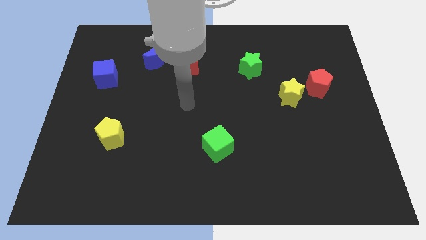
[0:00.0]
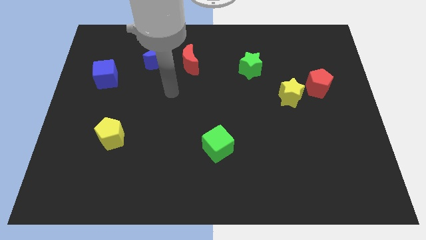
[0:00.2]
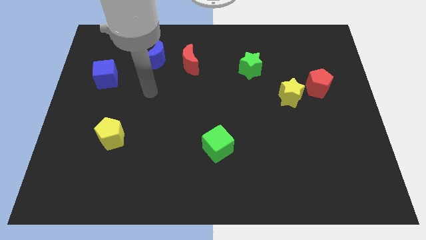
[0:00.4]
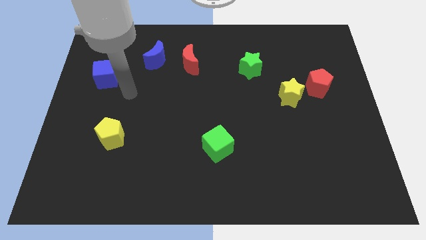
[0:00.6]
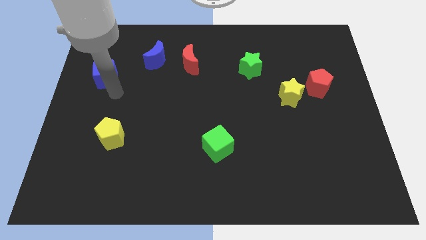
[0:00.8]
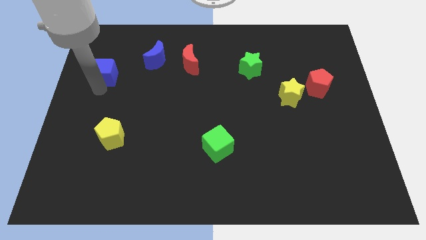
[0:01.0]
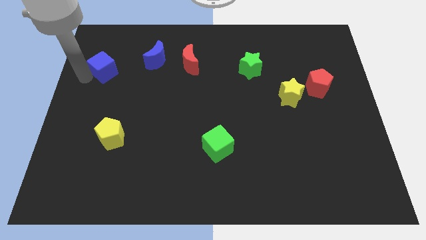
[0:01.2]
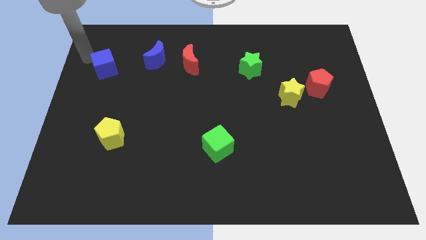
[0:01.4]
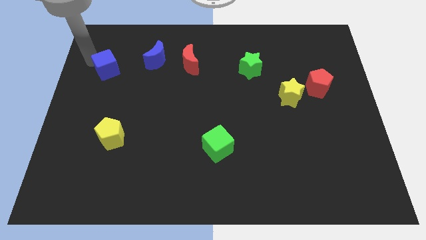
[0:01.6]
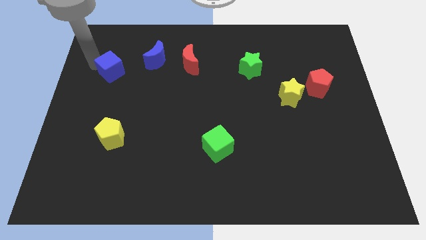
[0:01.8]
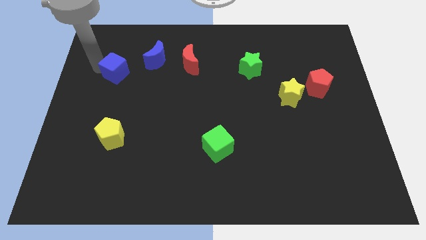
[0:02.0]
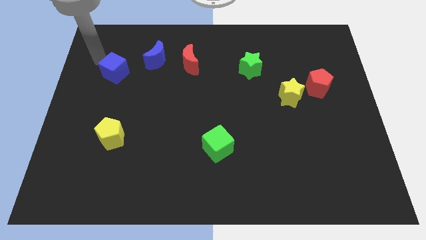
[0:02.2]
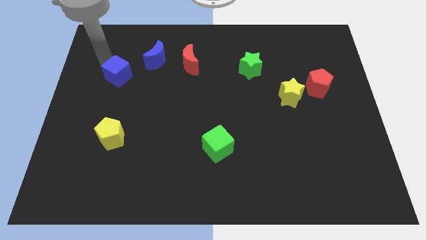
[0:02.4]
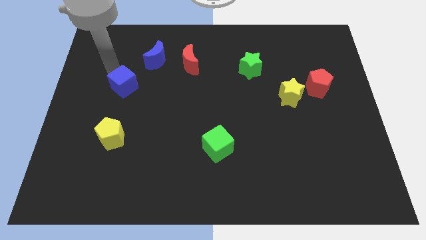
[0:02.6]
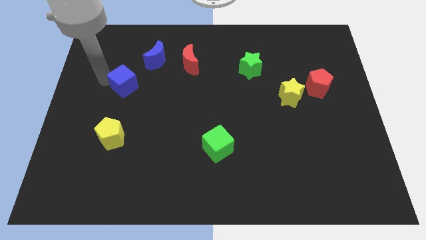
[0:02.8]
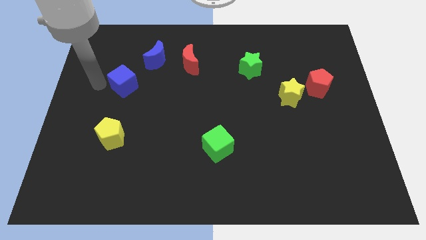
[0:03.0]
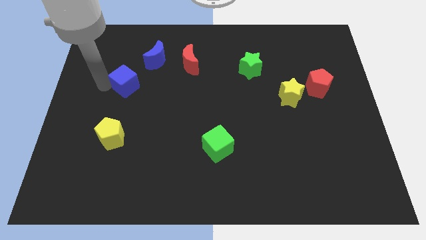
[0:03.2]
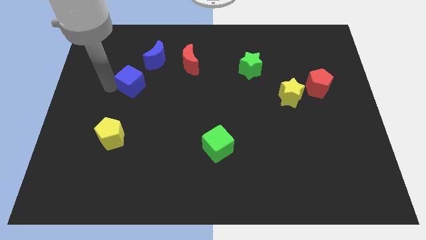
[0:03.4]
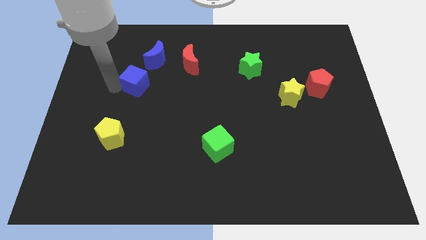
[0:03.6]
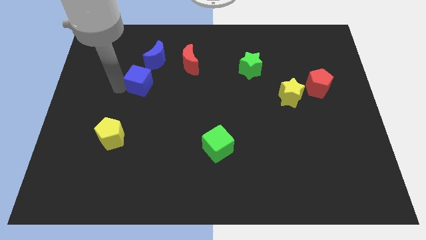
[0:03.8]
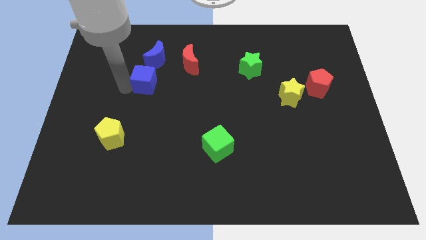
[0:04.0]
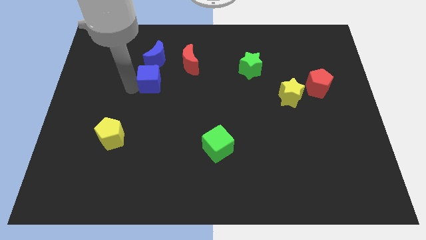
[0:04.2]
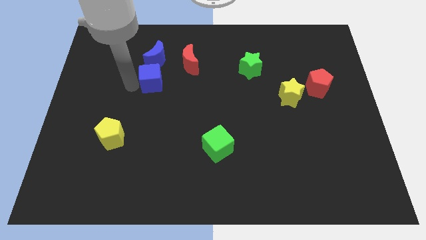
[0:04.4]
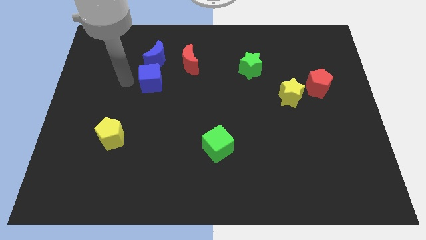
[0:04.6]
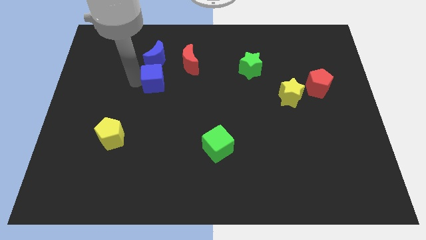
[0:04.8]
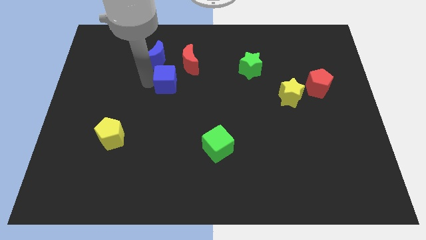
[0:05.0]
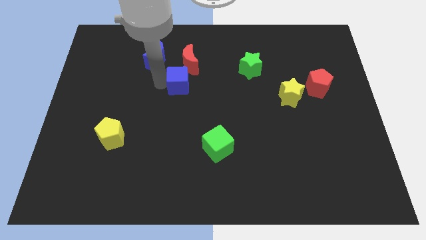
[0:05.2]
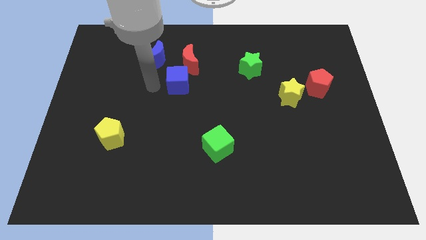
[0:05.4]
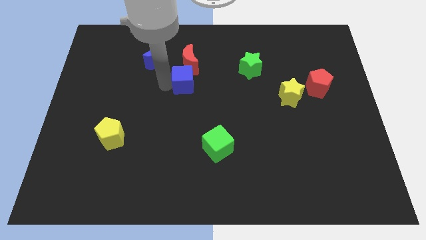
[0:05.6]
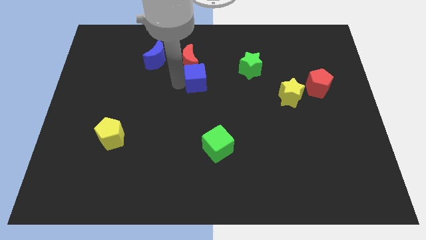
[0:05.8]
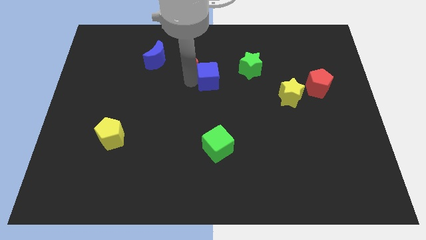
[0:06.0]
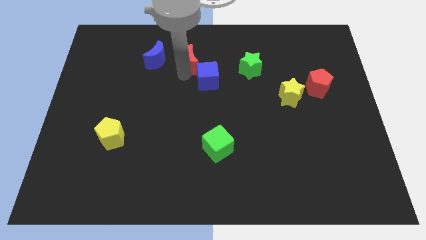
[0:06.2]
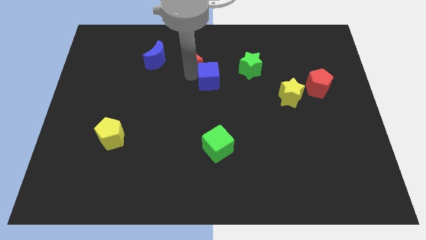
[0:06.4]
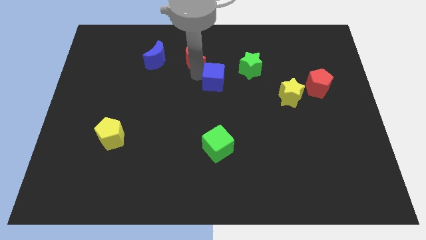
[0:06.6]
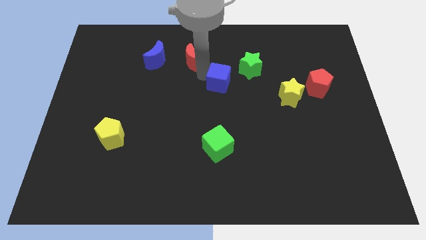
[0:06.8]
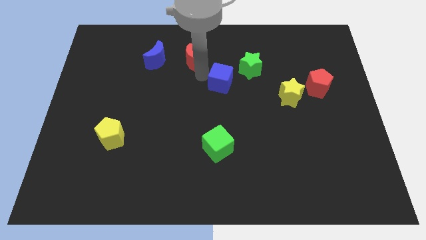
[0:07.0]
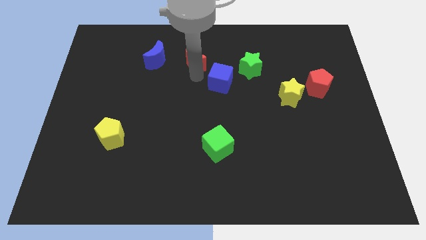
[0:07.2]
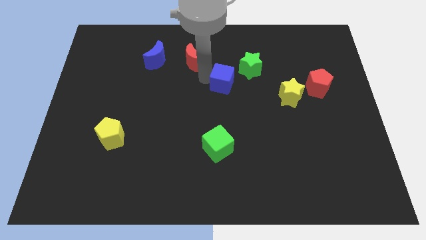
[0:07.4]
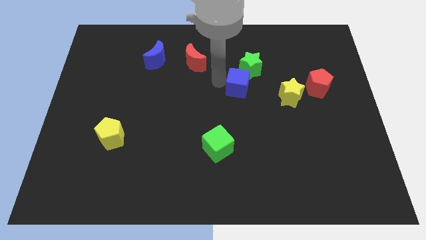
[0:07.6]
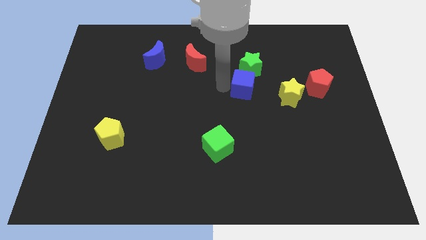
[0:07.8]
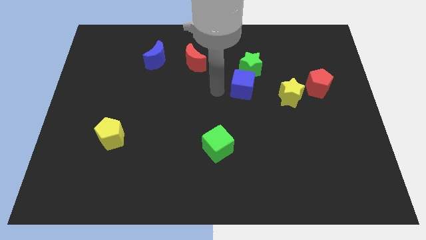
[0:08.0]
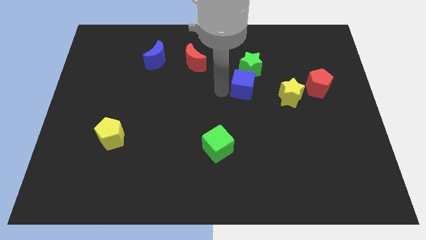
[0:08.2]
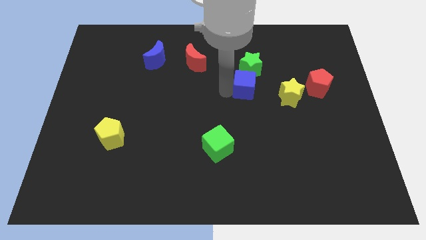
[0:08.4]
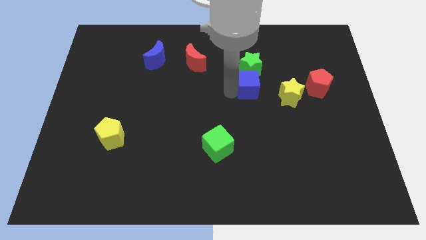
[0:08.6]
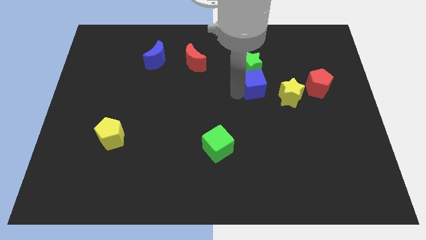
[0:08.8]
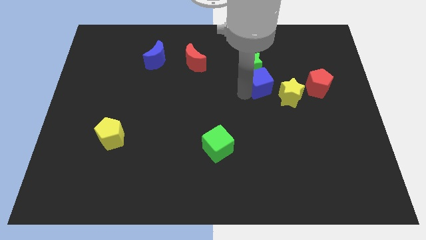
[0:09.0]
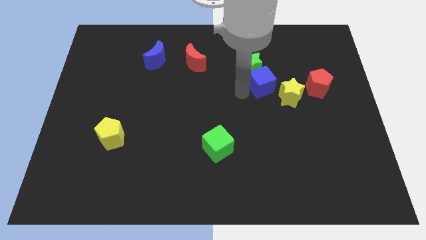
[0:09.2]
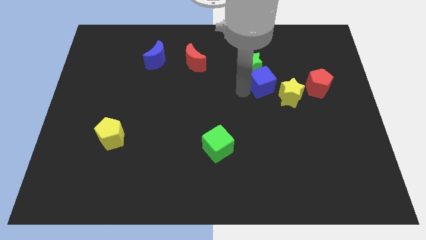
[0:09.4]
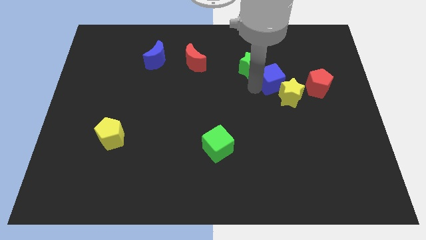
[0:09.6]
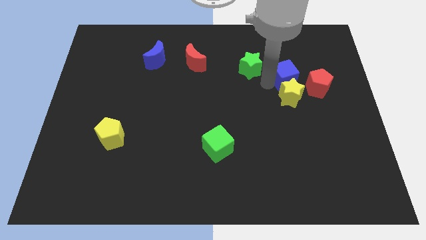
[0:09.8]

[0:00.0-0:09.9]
push the blue cube to the top right side of the yellow star

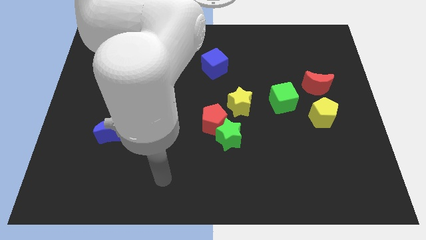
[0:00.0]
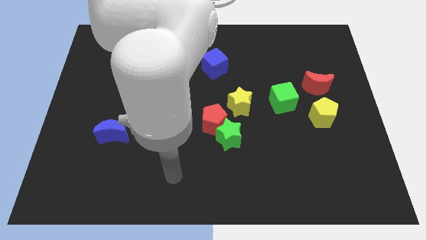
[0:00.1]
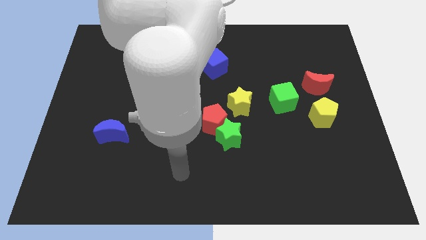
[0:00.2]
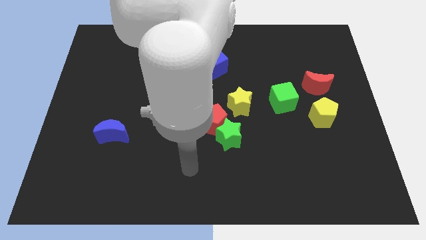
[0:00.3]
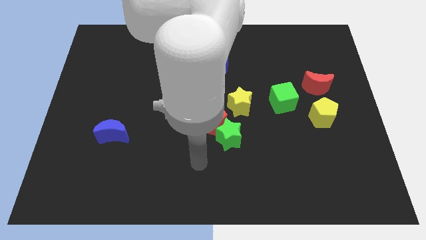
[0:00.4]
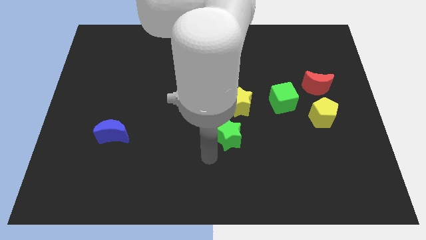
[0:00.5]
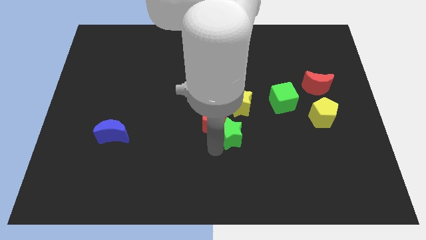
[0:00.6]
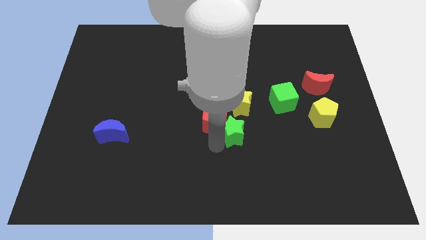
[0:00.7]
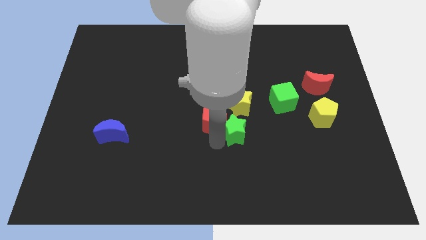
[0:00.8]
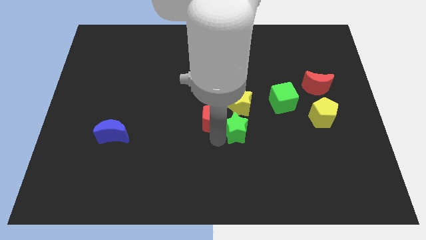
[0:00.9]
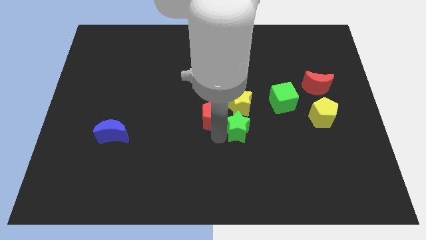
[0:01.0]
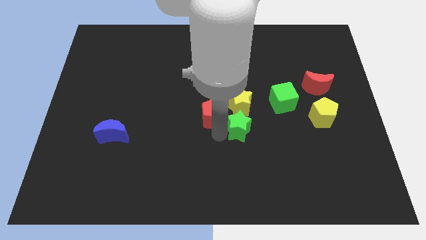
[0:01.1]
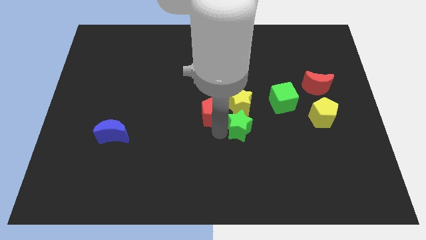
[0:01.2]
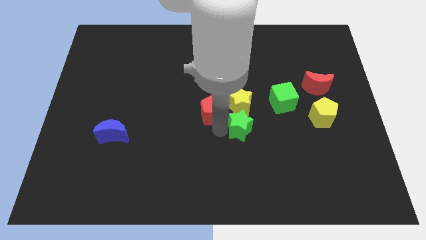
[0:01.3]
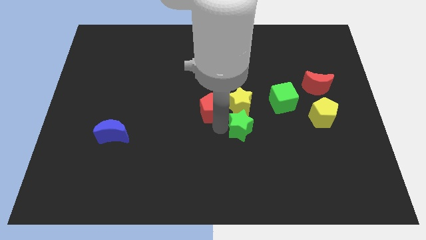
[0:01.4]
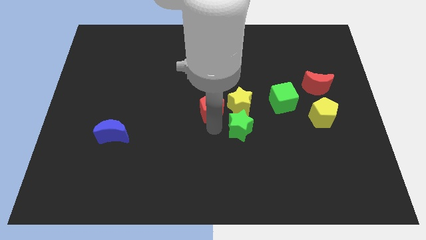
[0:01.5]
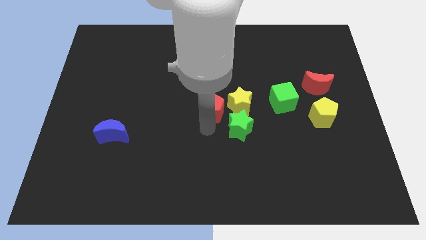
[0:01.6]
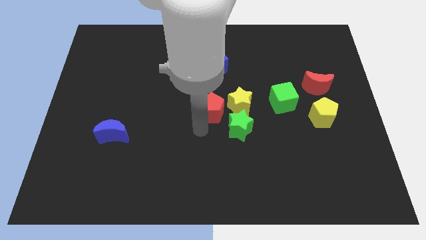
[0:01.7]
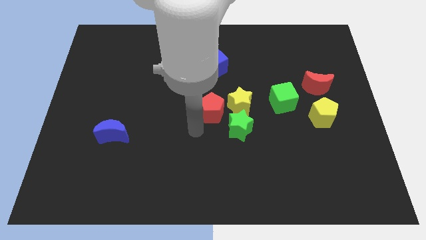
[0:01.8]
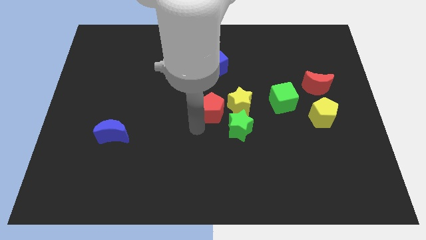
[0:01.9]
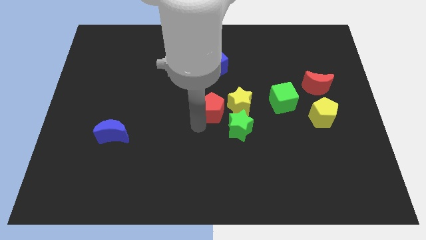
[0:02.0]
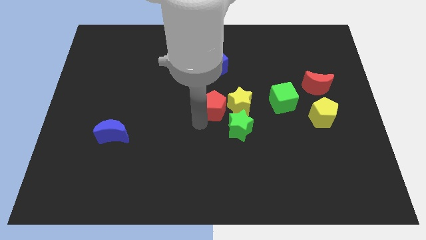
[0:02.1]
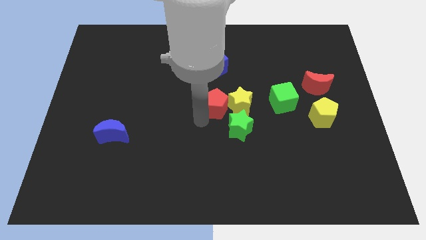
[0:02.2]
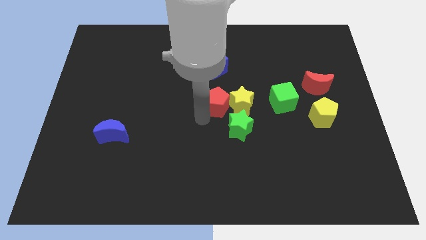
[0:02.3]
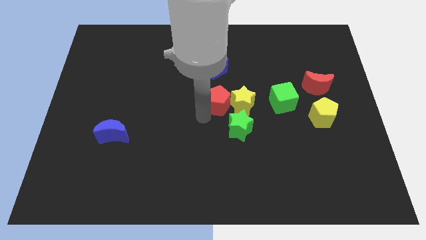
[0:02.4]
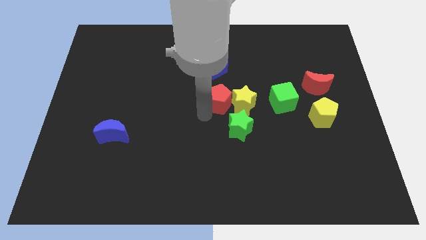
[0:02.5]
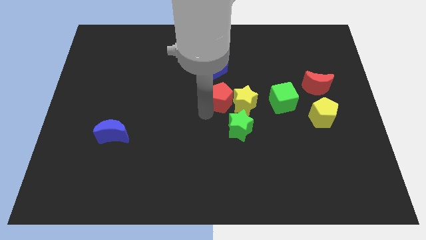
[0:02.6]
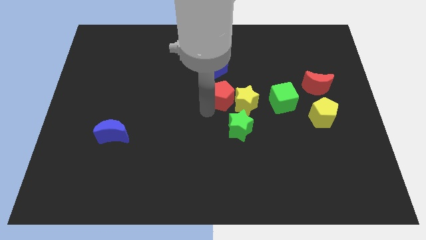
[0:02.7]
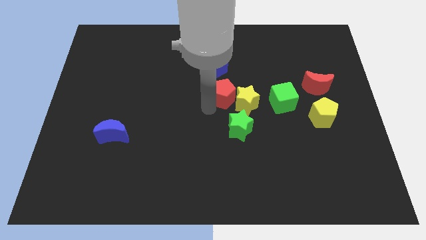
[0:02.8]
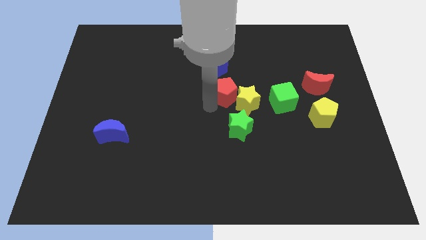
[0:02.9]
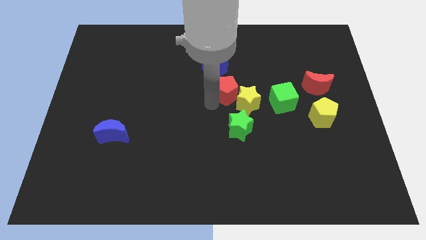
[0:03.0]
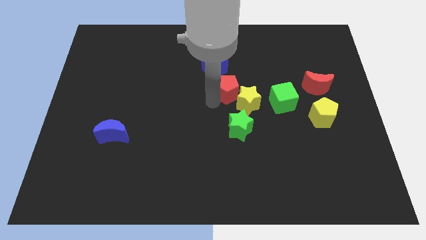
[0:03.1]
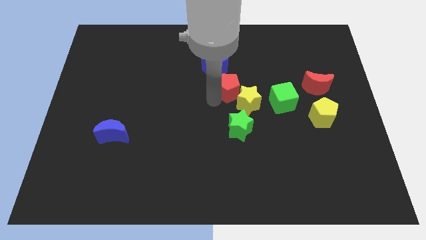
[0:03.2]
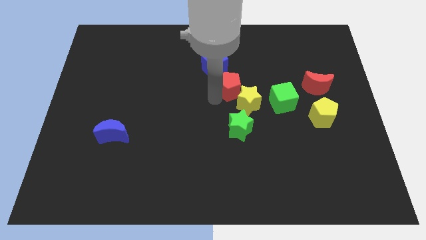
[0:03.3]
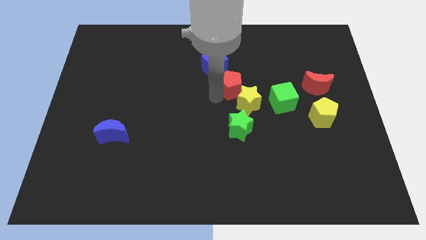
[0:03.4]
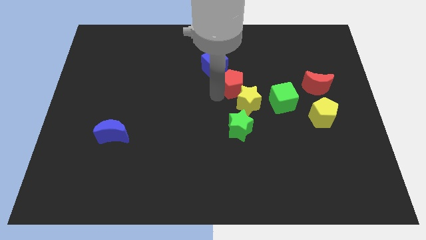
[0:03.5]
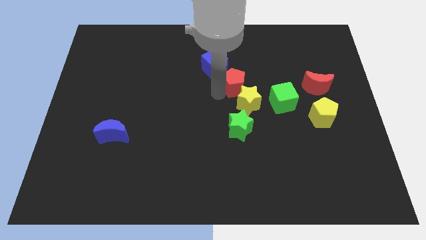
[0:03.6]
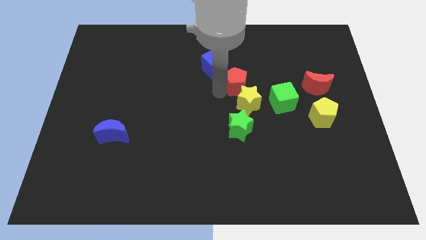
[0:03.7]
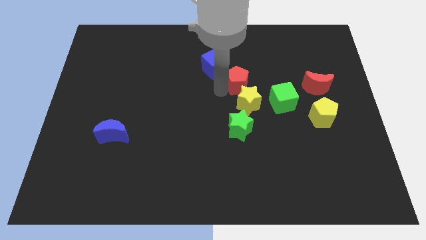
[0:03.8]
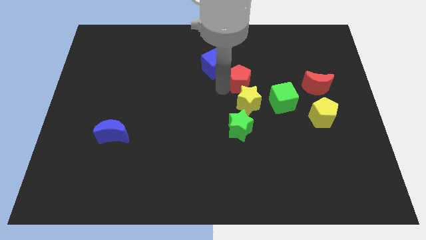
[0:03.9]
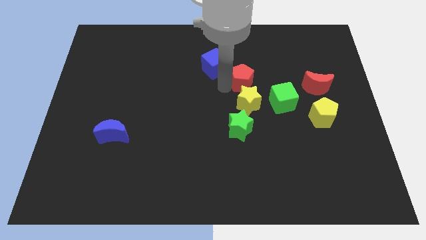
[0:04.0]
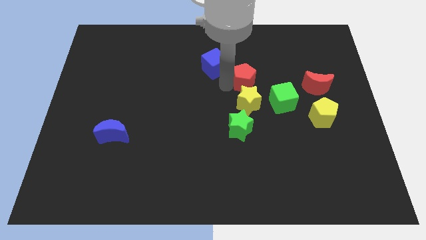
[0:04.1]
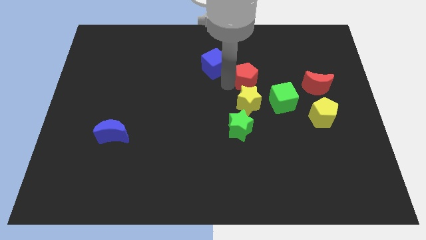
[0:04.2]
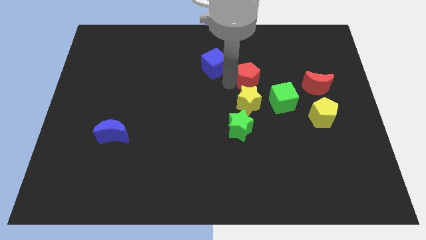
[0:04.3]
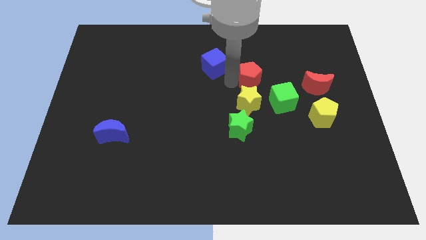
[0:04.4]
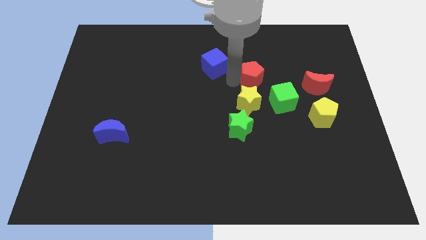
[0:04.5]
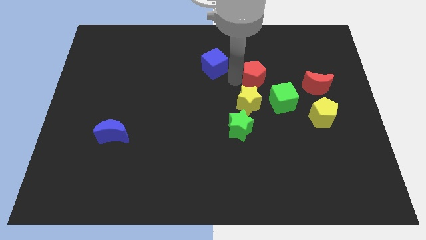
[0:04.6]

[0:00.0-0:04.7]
move the red pentagon to the left side of the red moon
